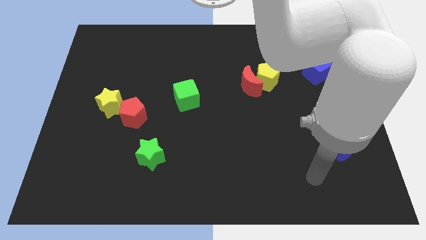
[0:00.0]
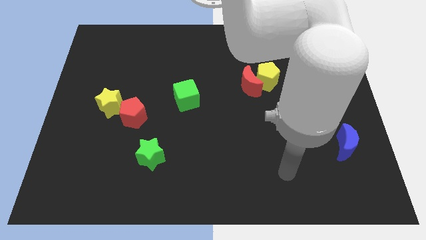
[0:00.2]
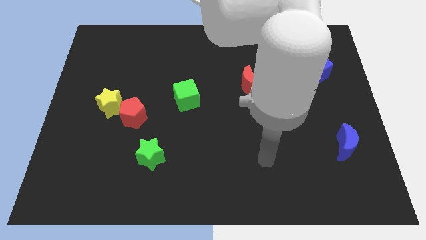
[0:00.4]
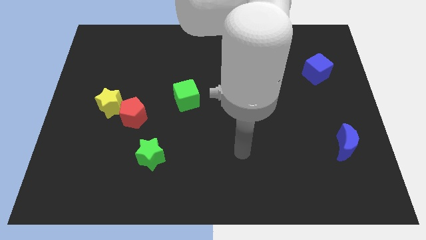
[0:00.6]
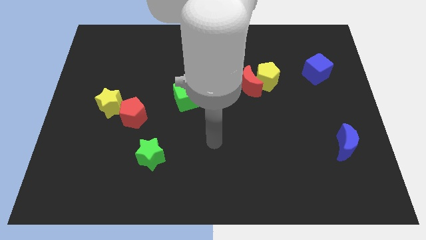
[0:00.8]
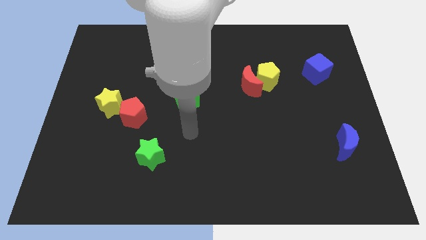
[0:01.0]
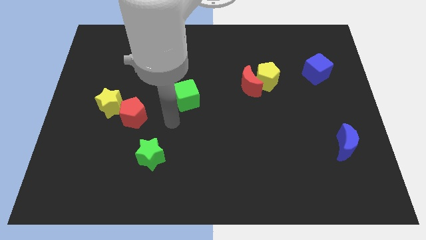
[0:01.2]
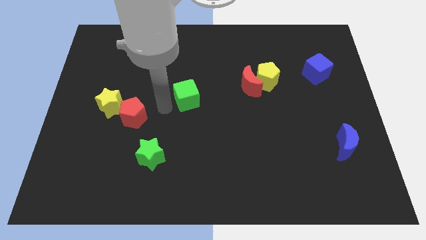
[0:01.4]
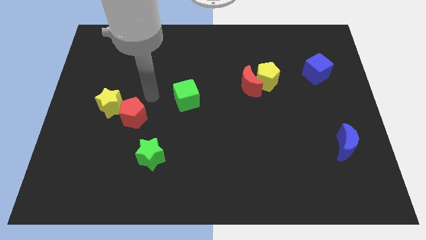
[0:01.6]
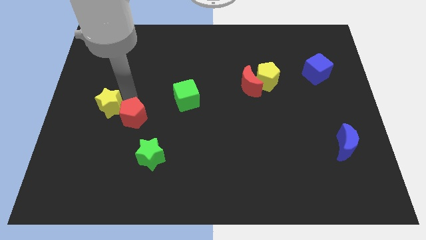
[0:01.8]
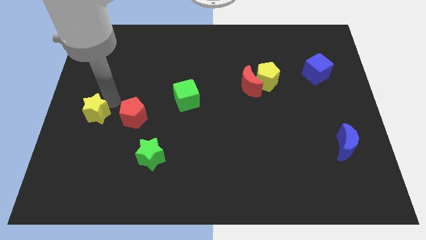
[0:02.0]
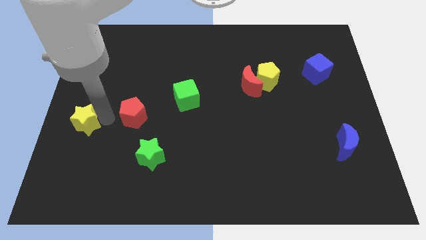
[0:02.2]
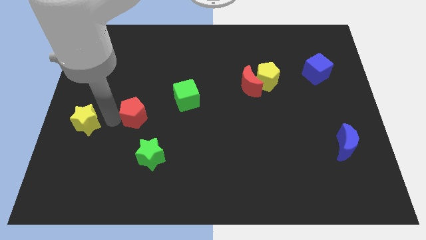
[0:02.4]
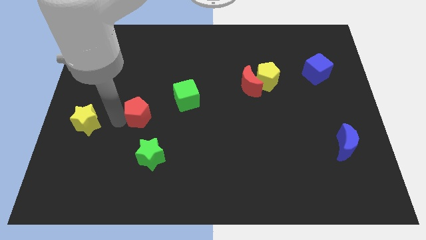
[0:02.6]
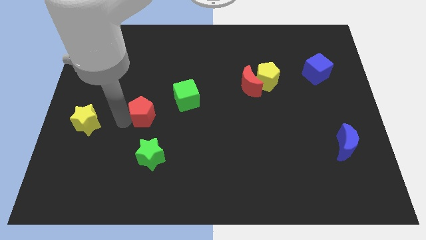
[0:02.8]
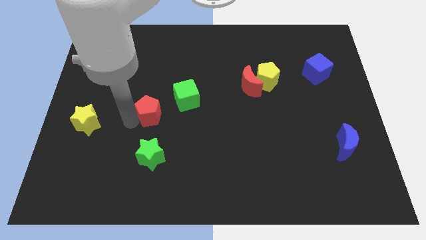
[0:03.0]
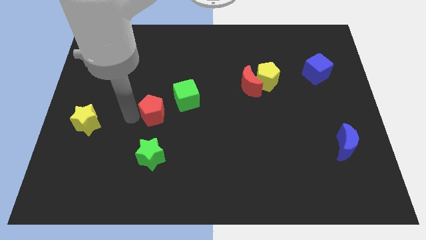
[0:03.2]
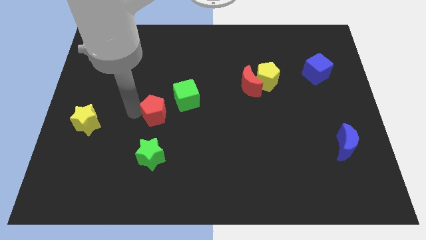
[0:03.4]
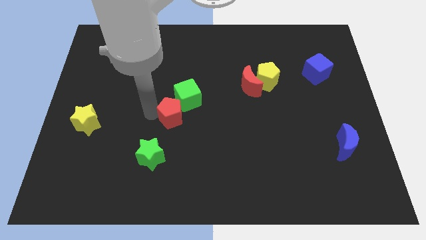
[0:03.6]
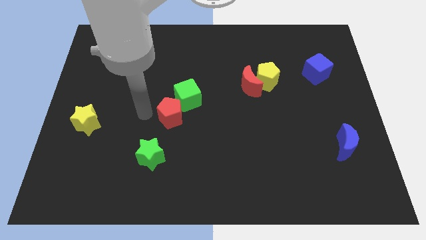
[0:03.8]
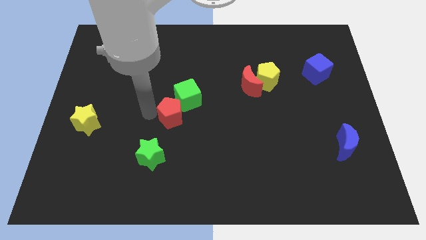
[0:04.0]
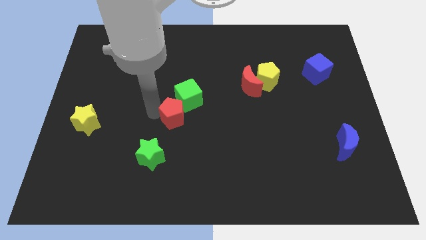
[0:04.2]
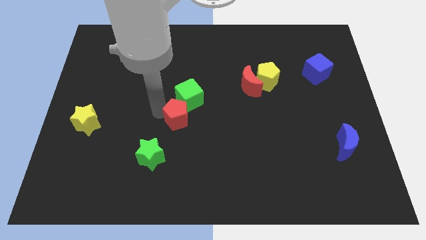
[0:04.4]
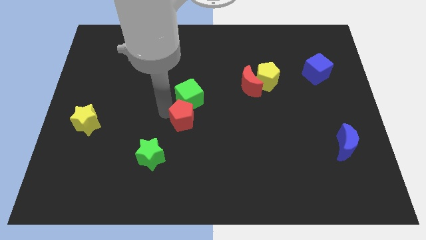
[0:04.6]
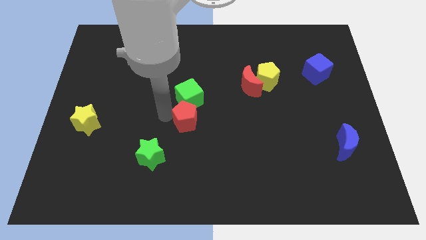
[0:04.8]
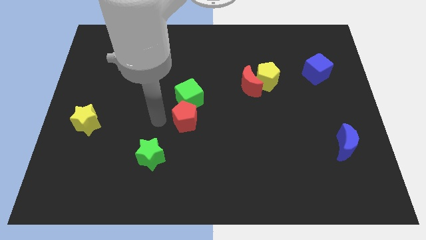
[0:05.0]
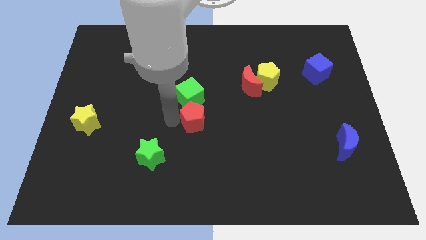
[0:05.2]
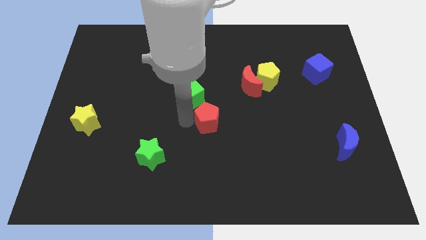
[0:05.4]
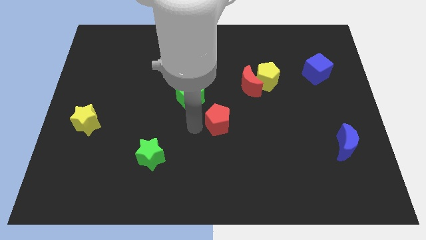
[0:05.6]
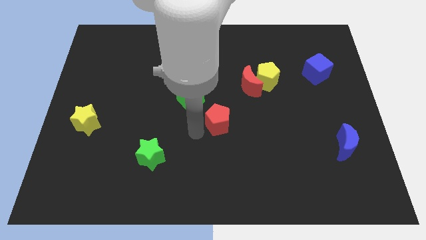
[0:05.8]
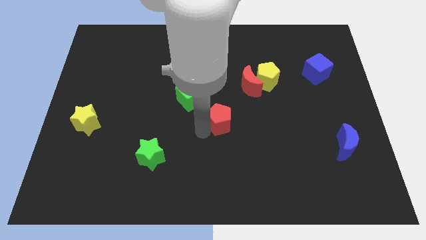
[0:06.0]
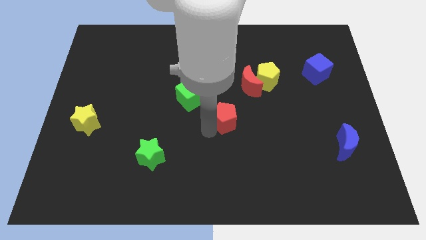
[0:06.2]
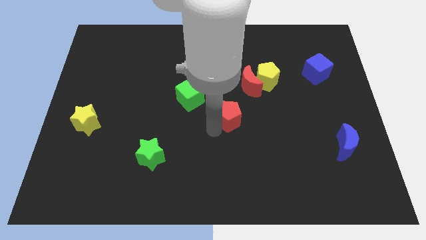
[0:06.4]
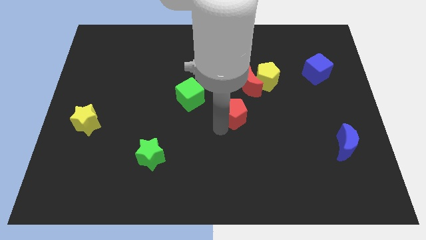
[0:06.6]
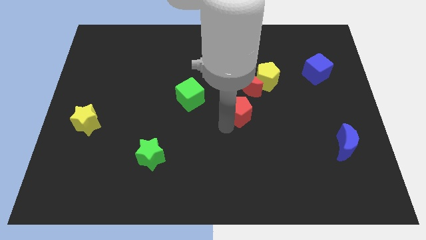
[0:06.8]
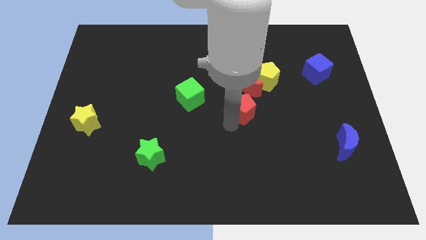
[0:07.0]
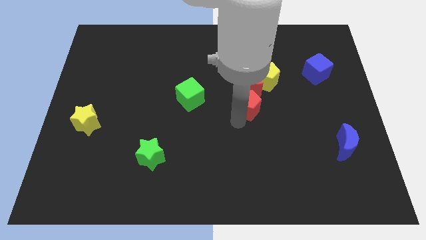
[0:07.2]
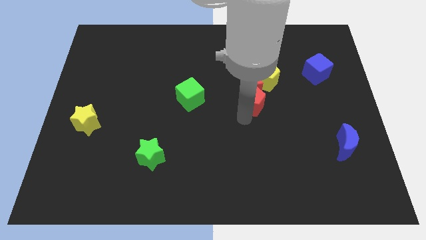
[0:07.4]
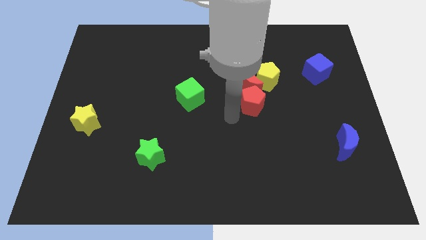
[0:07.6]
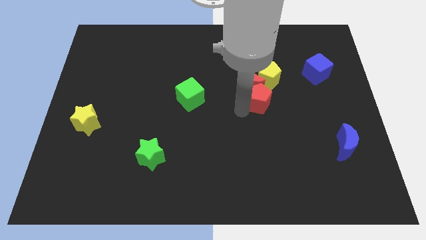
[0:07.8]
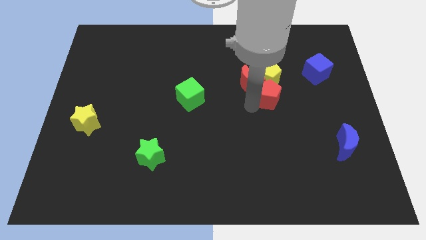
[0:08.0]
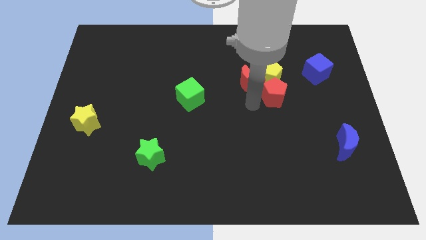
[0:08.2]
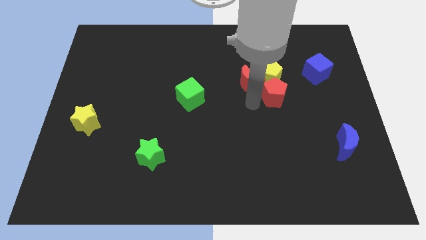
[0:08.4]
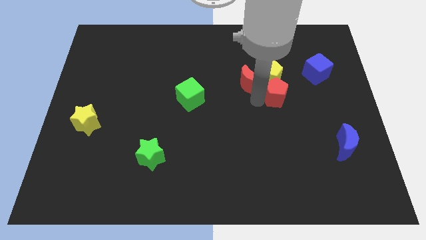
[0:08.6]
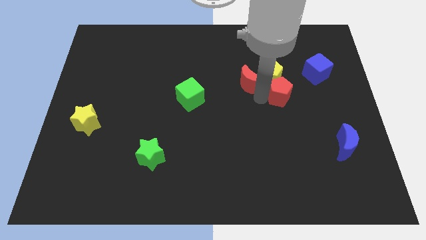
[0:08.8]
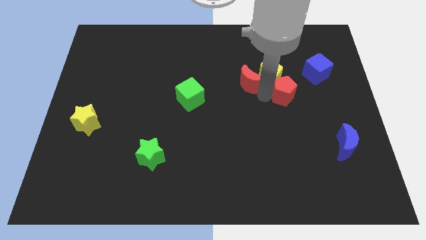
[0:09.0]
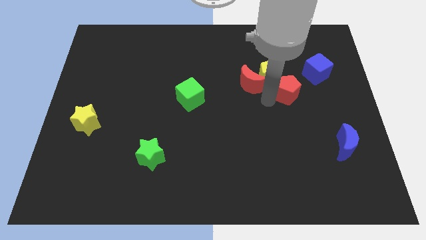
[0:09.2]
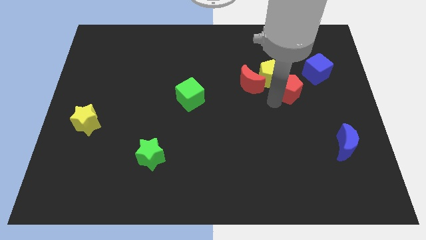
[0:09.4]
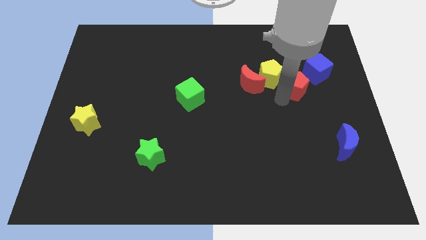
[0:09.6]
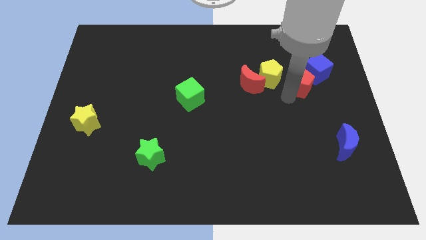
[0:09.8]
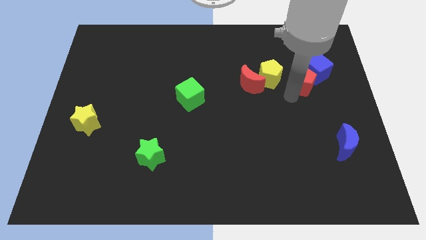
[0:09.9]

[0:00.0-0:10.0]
slide the red pentagon towards the blue cube
